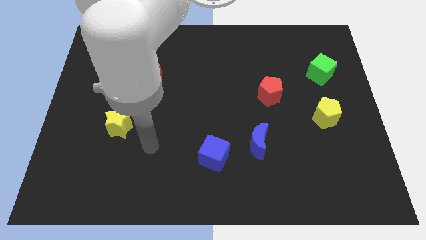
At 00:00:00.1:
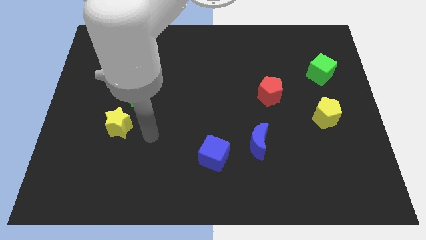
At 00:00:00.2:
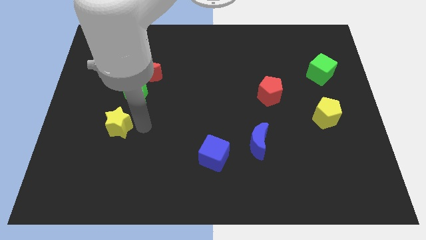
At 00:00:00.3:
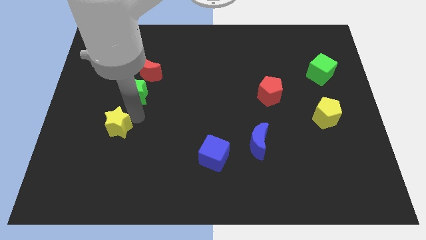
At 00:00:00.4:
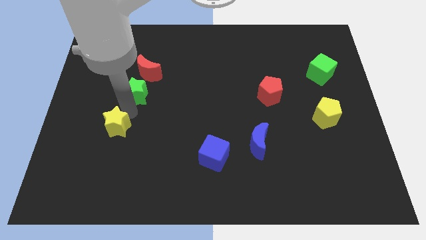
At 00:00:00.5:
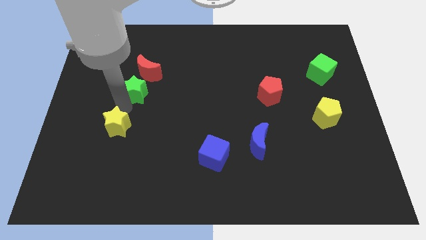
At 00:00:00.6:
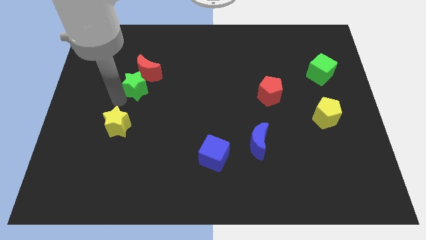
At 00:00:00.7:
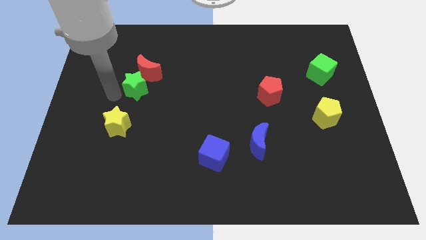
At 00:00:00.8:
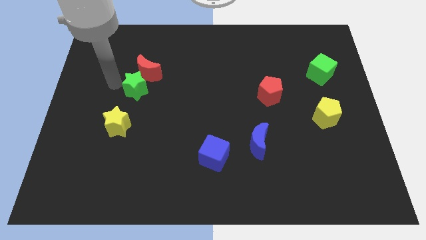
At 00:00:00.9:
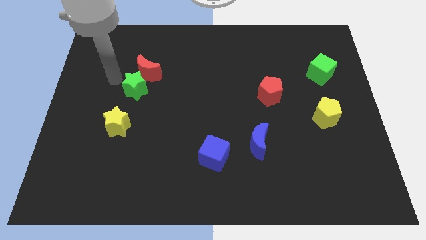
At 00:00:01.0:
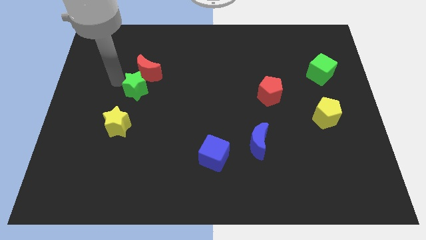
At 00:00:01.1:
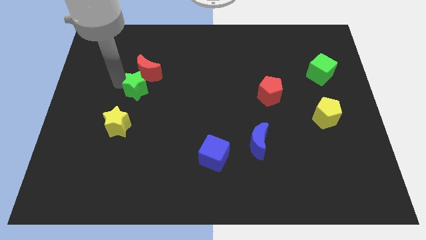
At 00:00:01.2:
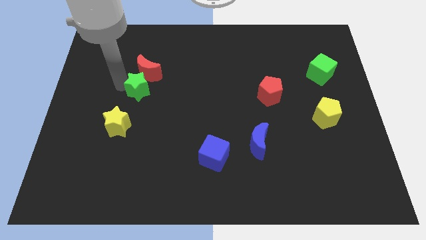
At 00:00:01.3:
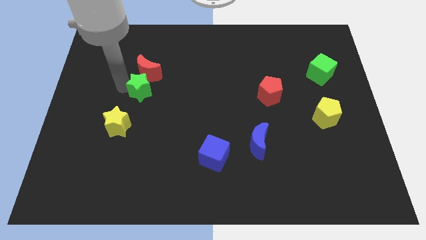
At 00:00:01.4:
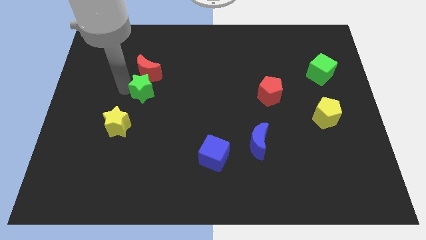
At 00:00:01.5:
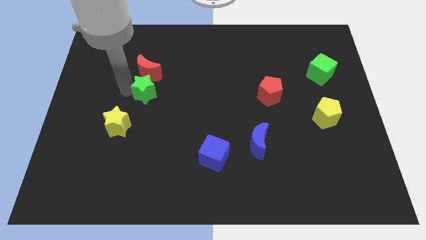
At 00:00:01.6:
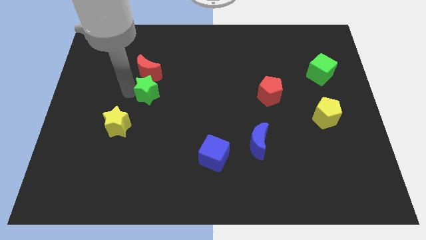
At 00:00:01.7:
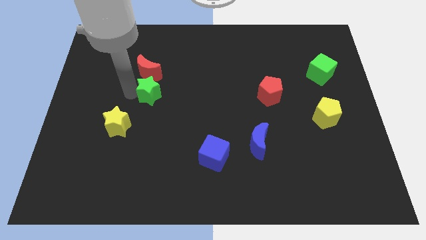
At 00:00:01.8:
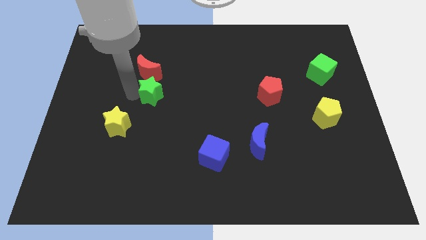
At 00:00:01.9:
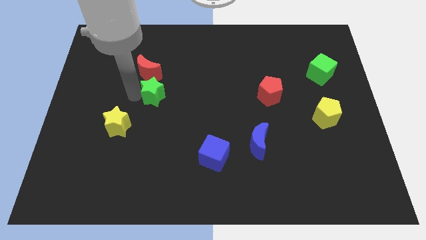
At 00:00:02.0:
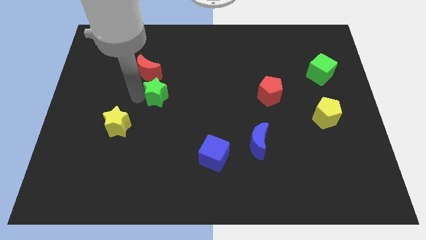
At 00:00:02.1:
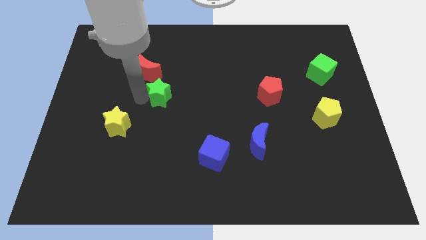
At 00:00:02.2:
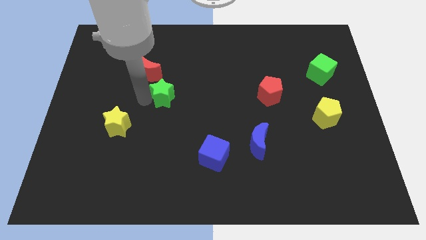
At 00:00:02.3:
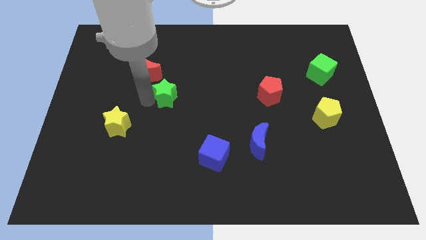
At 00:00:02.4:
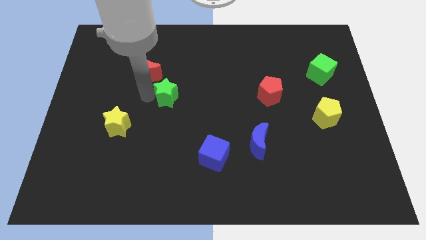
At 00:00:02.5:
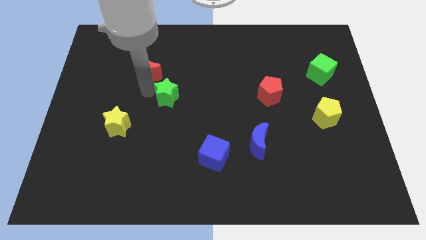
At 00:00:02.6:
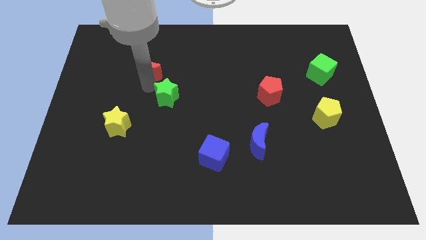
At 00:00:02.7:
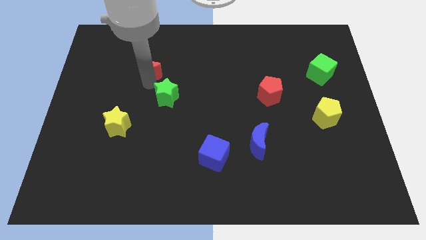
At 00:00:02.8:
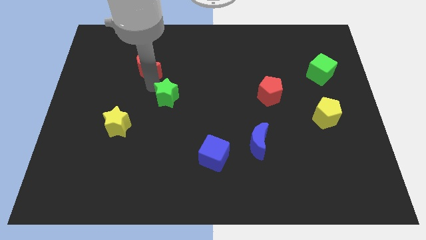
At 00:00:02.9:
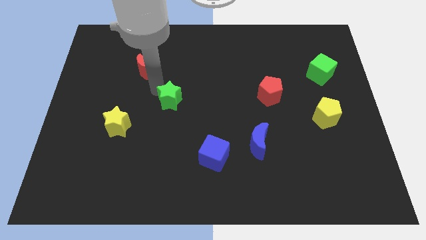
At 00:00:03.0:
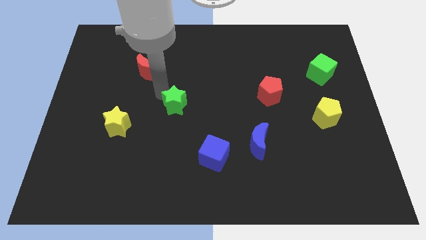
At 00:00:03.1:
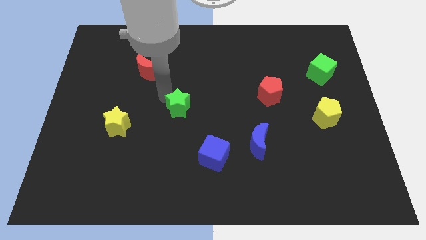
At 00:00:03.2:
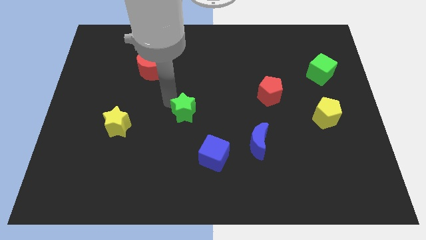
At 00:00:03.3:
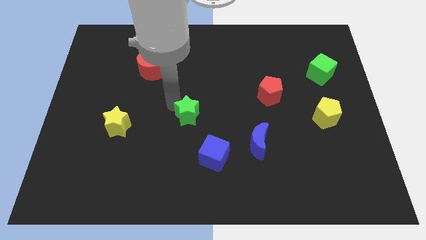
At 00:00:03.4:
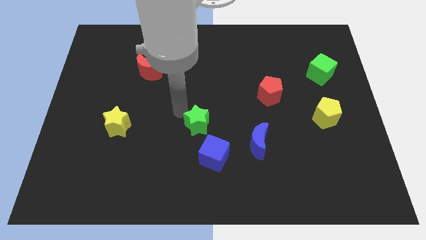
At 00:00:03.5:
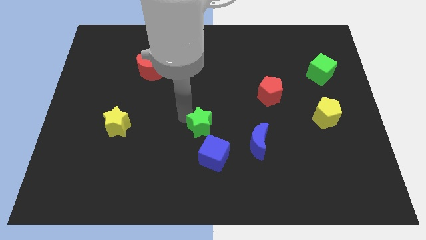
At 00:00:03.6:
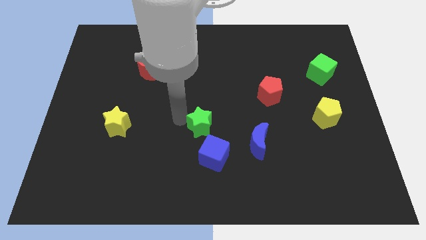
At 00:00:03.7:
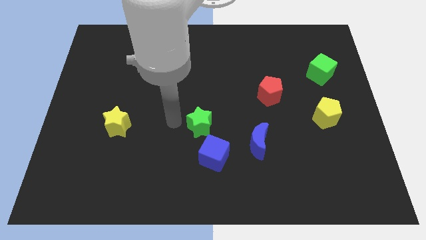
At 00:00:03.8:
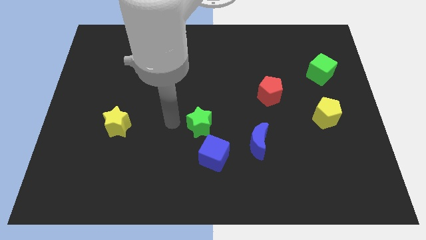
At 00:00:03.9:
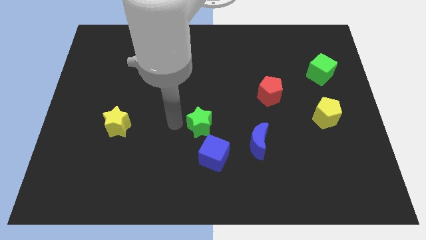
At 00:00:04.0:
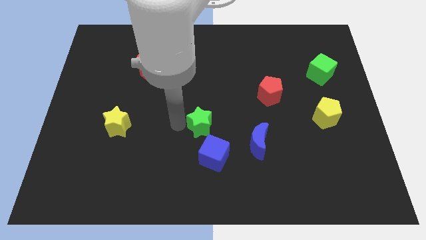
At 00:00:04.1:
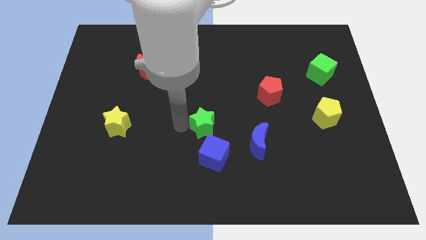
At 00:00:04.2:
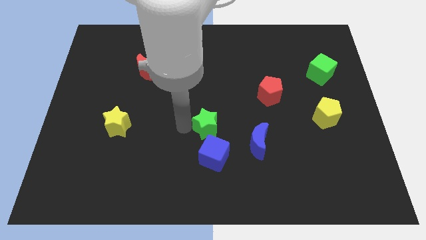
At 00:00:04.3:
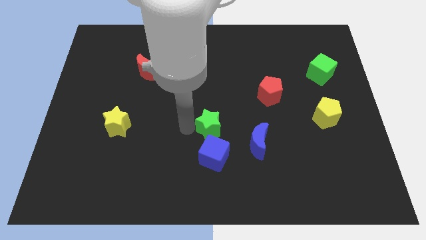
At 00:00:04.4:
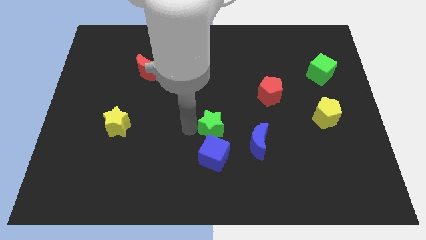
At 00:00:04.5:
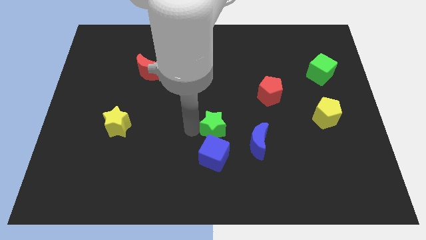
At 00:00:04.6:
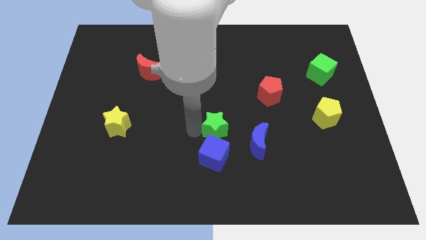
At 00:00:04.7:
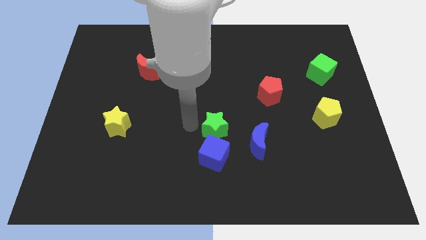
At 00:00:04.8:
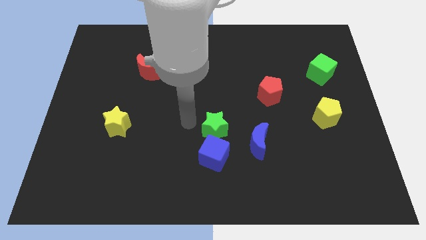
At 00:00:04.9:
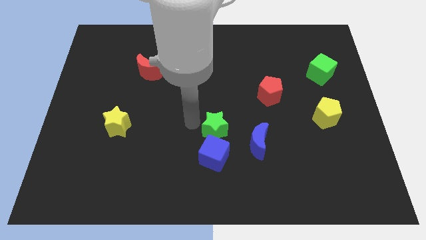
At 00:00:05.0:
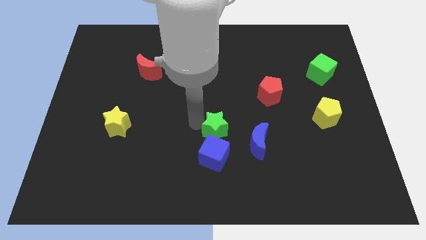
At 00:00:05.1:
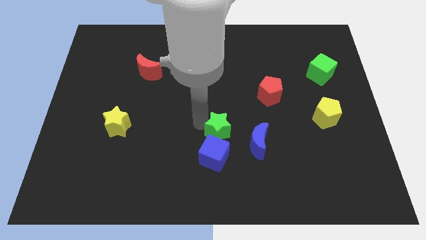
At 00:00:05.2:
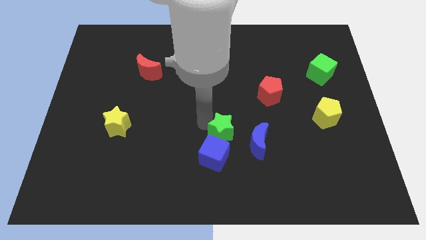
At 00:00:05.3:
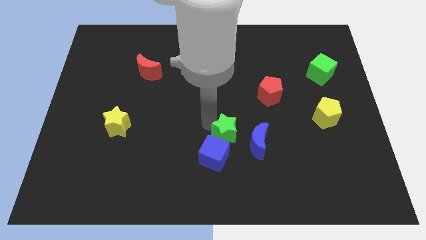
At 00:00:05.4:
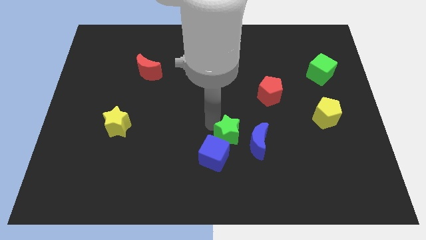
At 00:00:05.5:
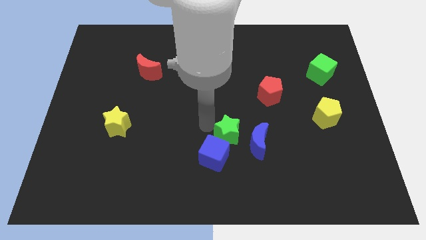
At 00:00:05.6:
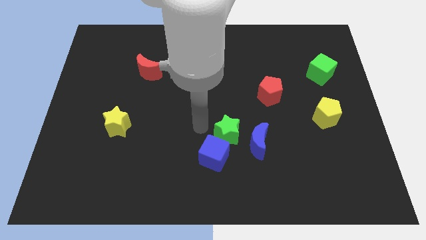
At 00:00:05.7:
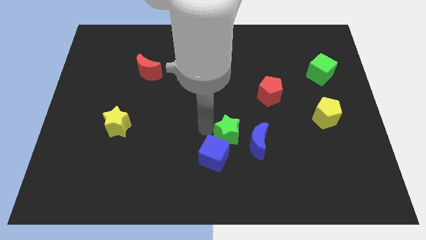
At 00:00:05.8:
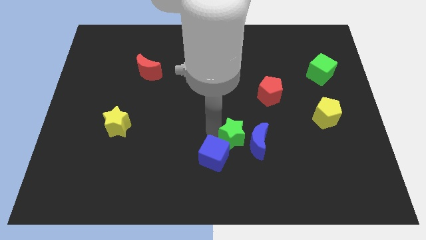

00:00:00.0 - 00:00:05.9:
slide the green star close to the blue moon

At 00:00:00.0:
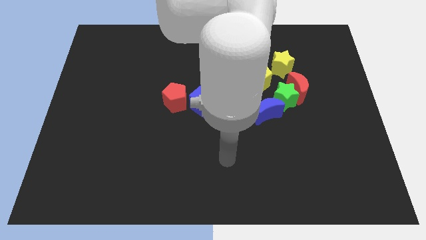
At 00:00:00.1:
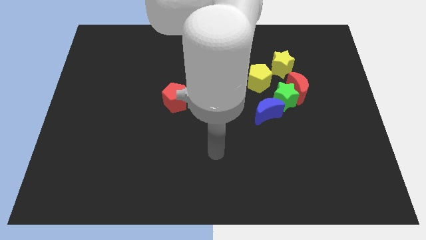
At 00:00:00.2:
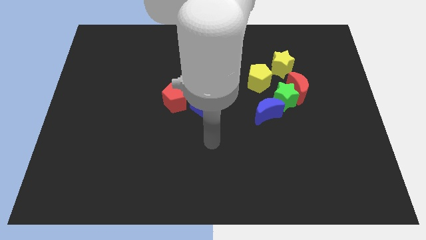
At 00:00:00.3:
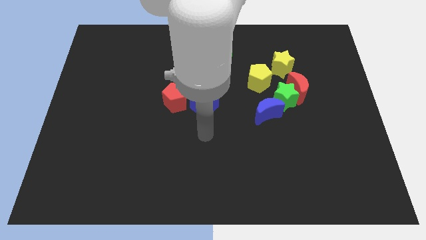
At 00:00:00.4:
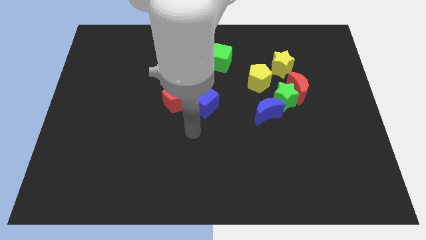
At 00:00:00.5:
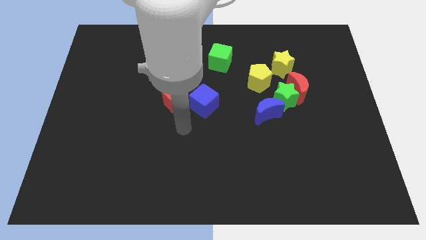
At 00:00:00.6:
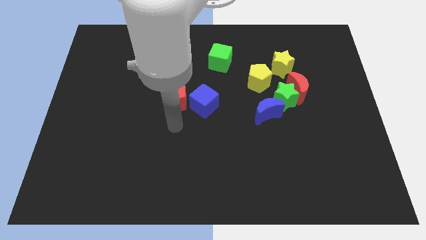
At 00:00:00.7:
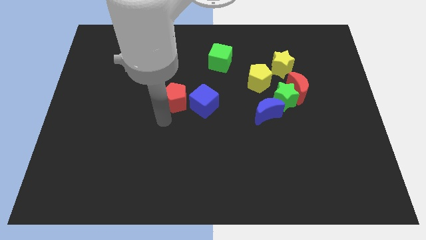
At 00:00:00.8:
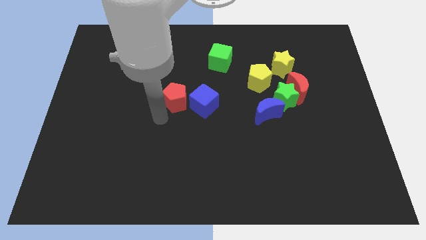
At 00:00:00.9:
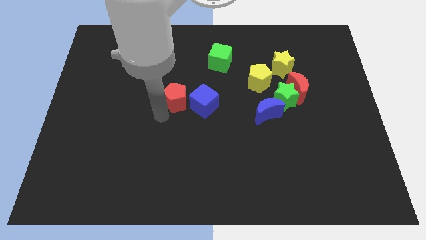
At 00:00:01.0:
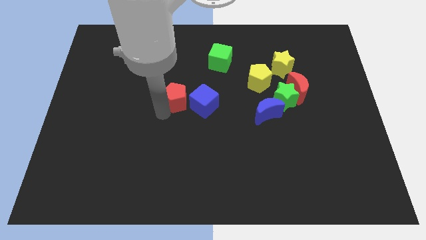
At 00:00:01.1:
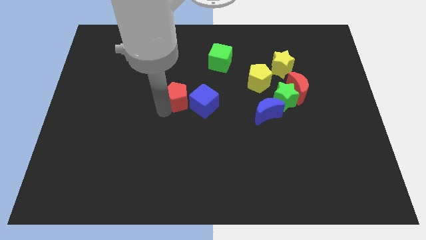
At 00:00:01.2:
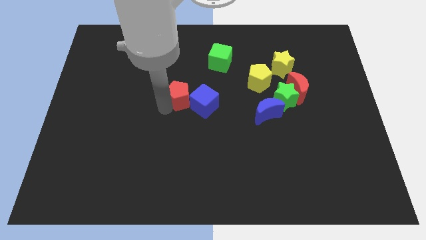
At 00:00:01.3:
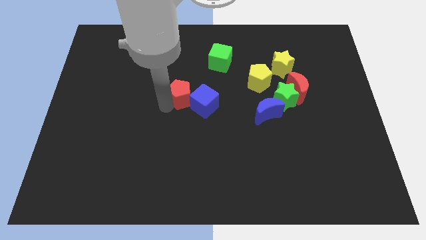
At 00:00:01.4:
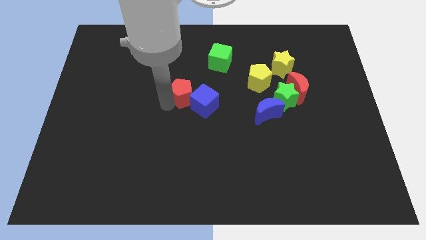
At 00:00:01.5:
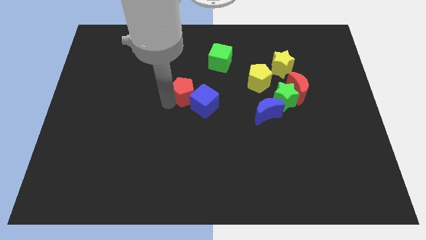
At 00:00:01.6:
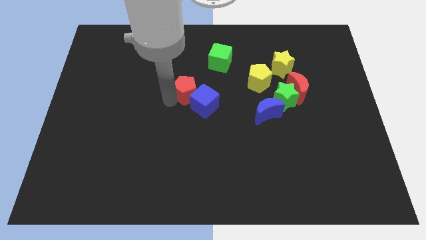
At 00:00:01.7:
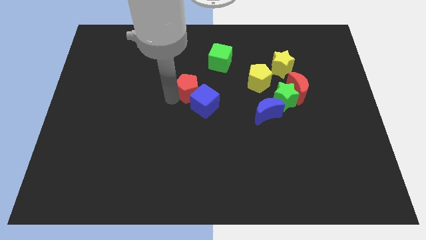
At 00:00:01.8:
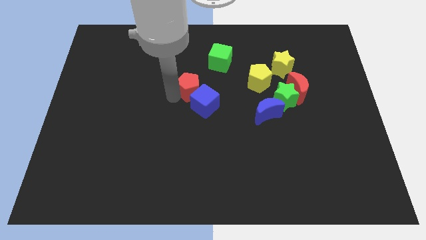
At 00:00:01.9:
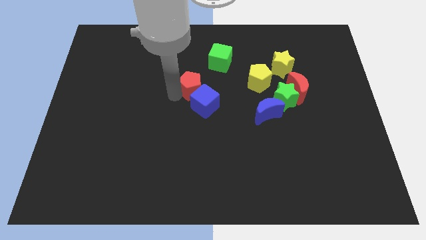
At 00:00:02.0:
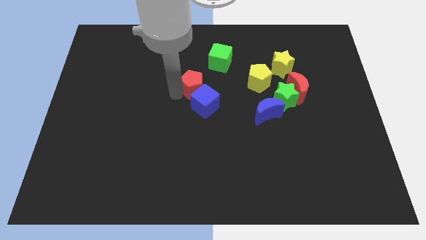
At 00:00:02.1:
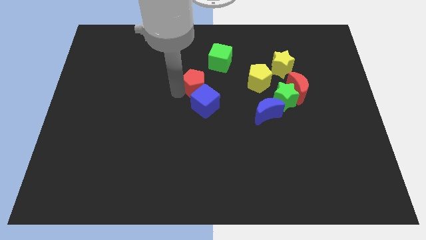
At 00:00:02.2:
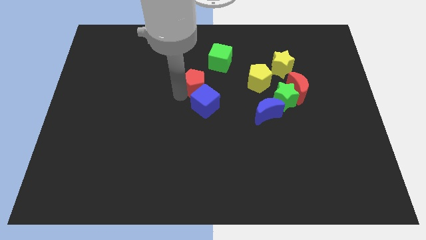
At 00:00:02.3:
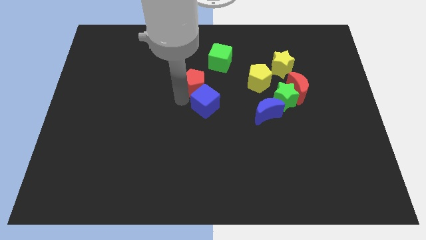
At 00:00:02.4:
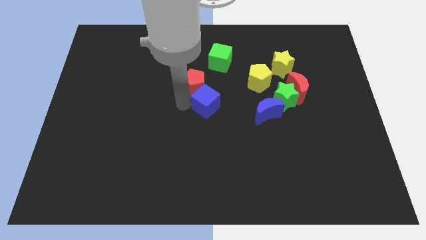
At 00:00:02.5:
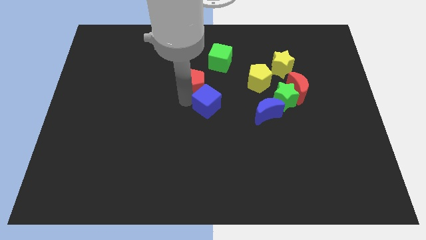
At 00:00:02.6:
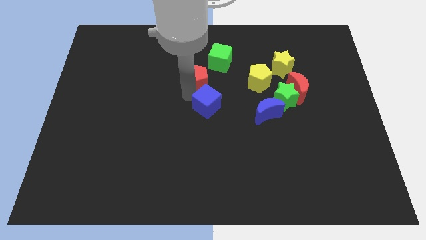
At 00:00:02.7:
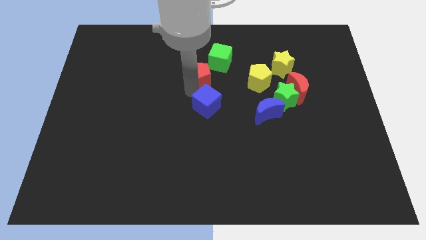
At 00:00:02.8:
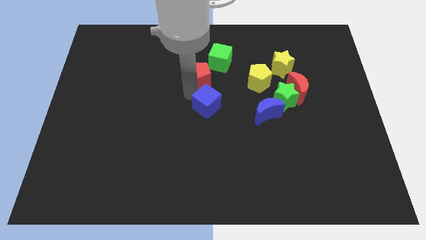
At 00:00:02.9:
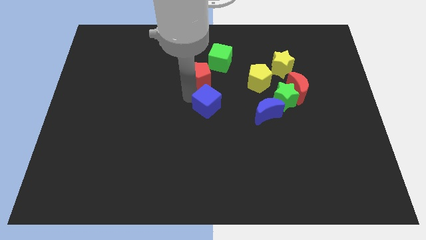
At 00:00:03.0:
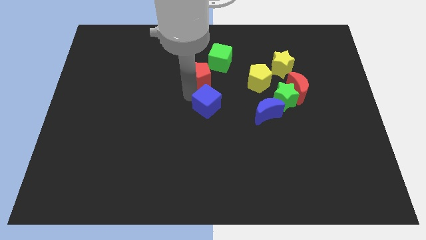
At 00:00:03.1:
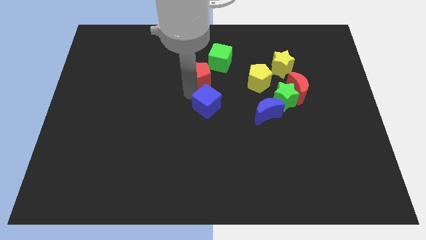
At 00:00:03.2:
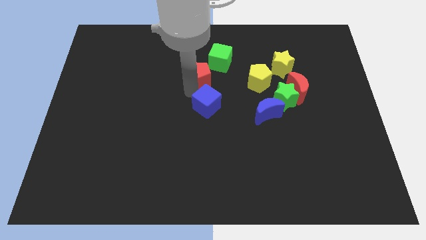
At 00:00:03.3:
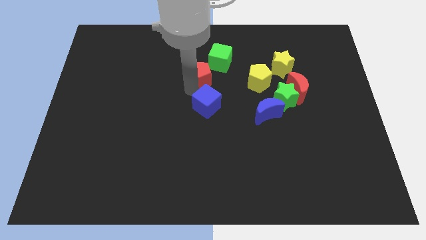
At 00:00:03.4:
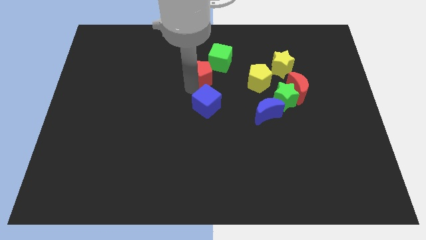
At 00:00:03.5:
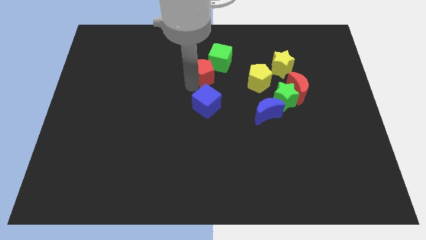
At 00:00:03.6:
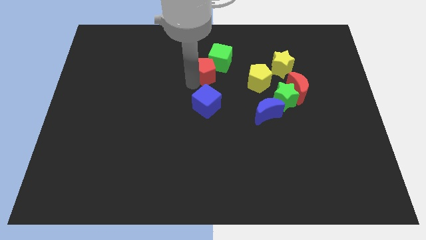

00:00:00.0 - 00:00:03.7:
put the red pentagon to the green cube
